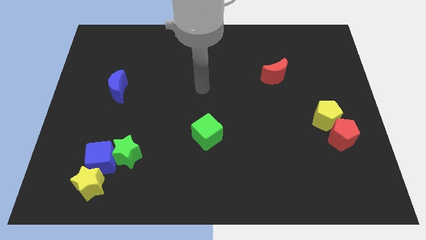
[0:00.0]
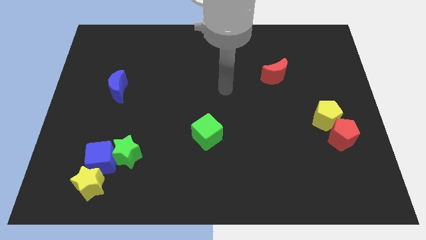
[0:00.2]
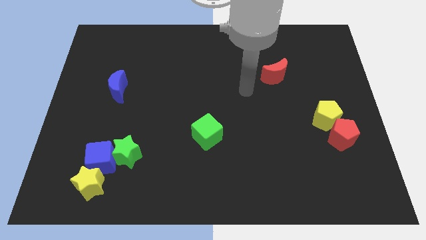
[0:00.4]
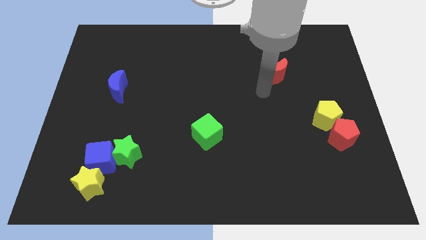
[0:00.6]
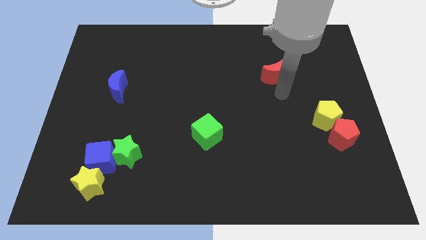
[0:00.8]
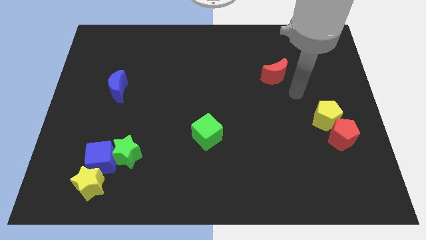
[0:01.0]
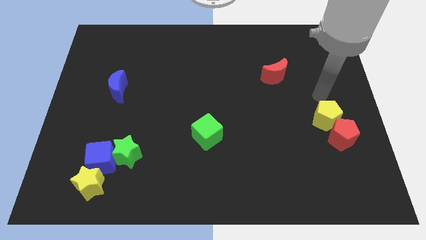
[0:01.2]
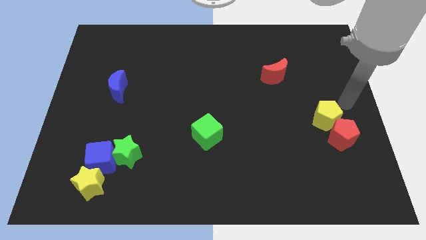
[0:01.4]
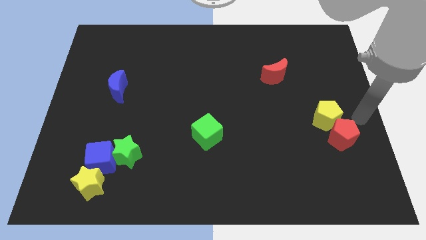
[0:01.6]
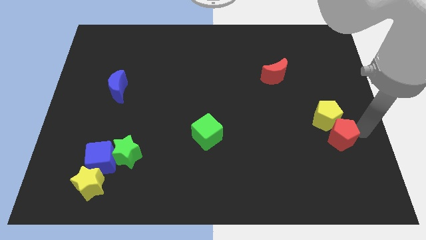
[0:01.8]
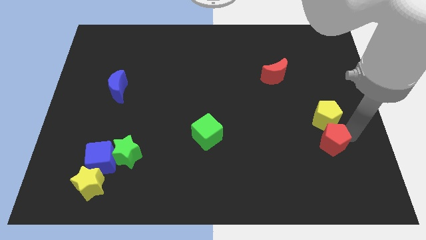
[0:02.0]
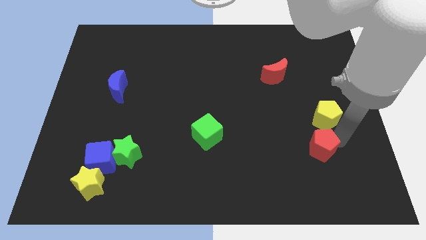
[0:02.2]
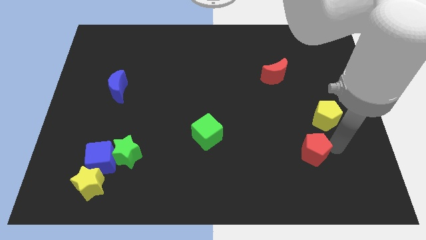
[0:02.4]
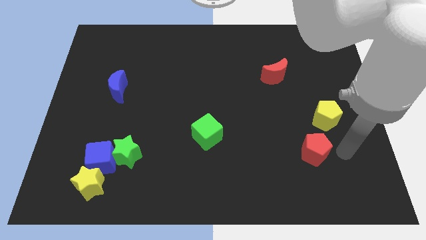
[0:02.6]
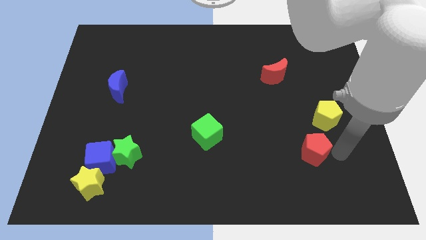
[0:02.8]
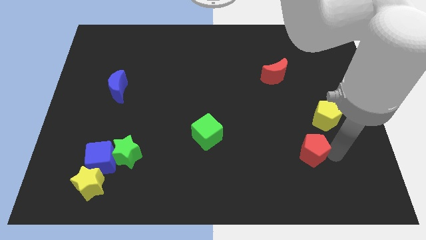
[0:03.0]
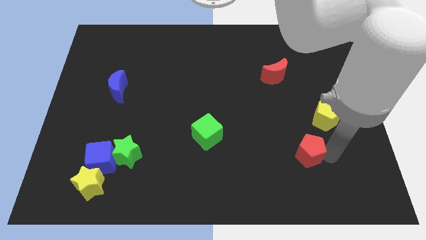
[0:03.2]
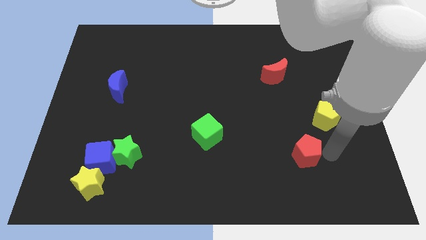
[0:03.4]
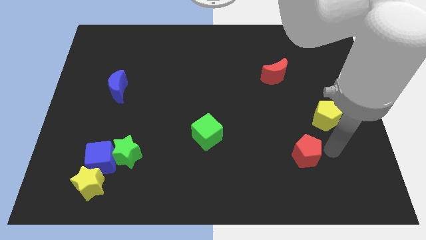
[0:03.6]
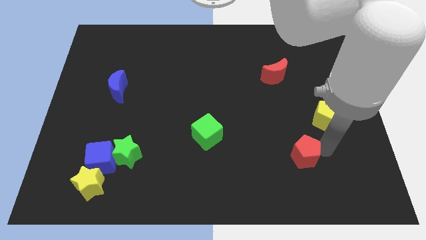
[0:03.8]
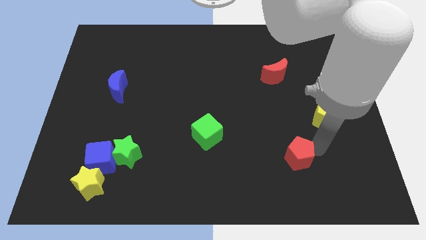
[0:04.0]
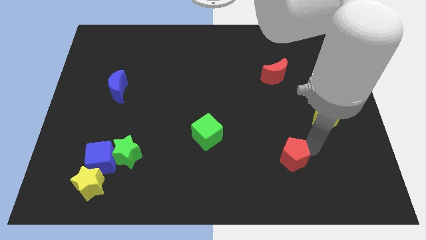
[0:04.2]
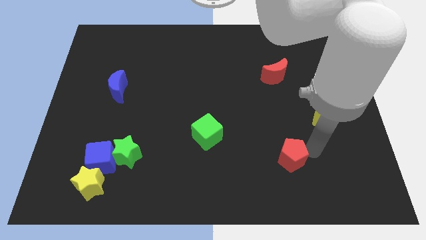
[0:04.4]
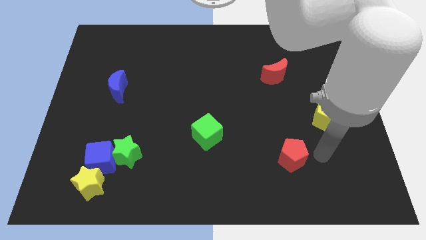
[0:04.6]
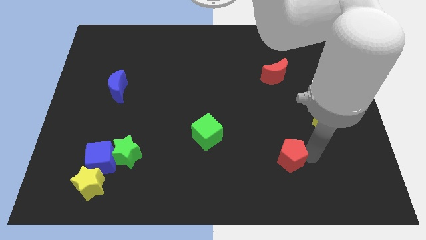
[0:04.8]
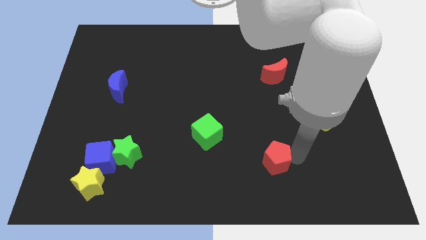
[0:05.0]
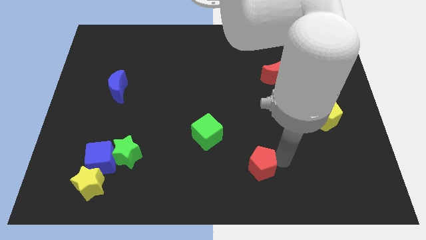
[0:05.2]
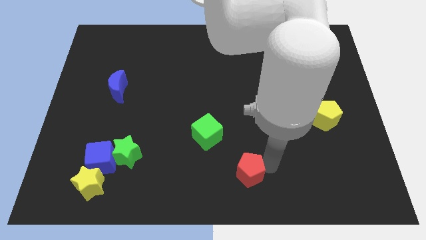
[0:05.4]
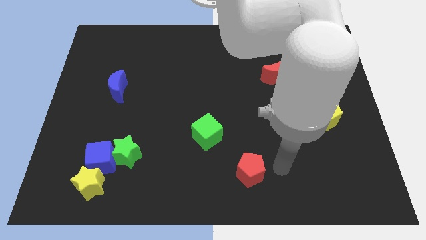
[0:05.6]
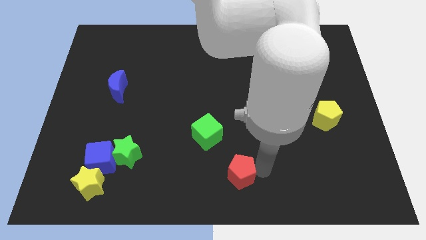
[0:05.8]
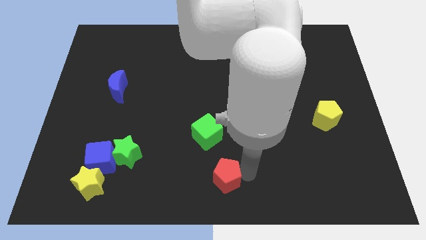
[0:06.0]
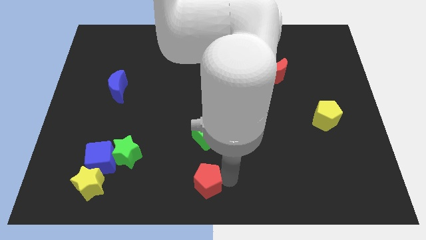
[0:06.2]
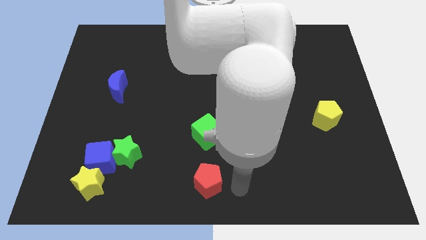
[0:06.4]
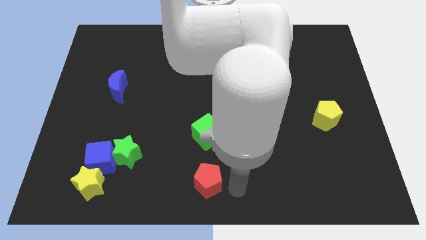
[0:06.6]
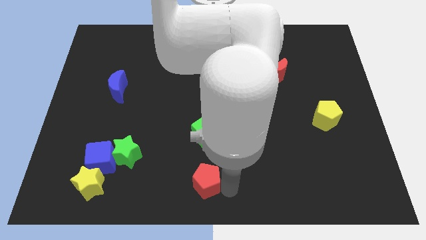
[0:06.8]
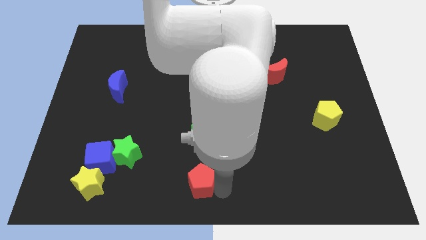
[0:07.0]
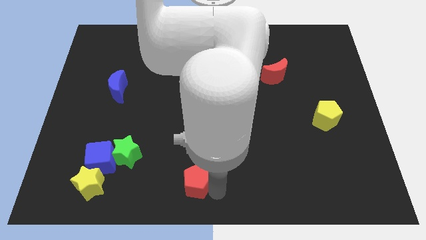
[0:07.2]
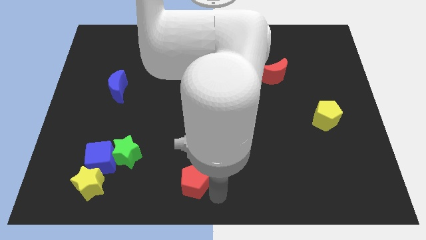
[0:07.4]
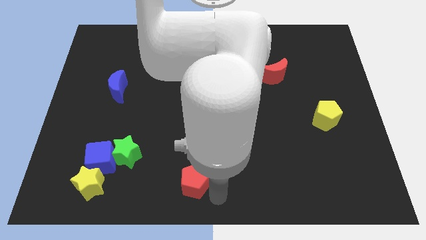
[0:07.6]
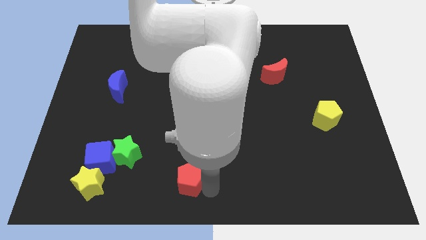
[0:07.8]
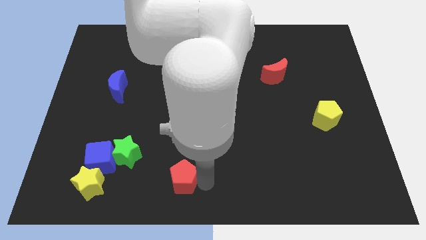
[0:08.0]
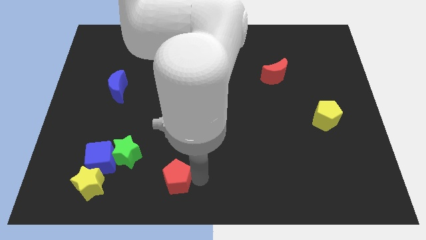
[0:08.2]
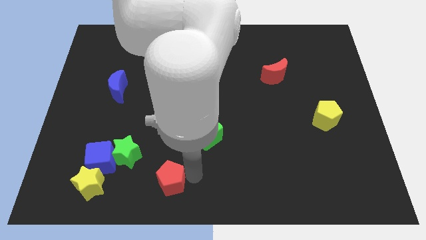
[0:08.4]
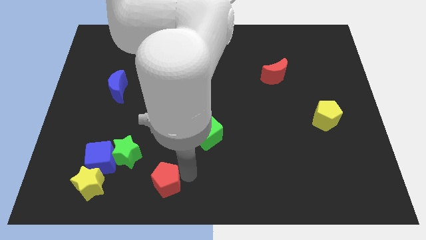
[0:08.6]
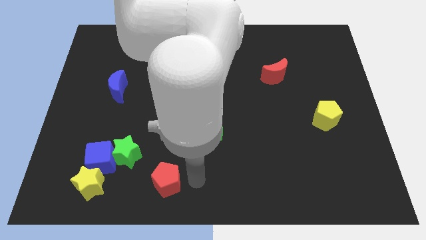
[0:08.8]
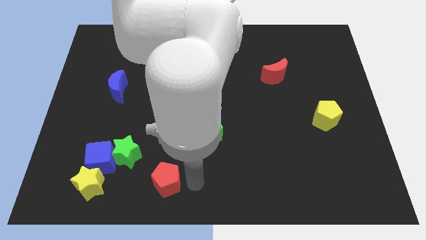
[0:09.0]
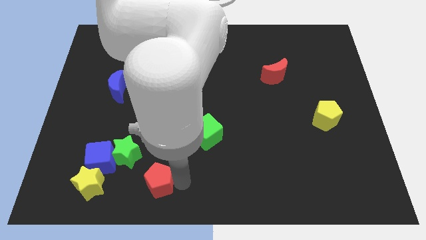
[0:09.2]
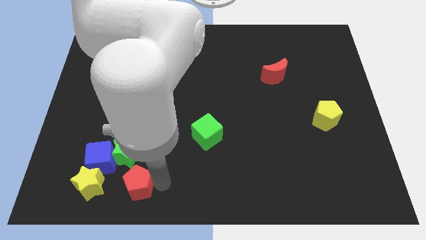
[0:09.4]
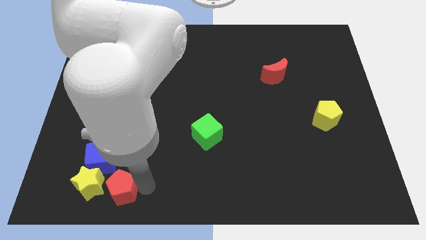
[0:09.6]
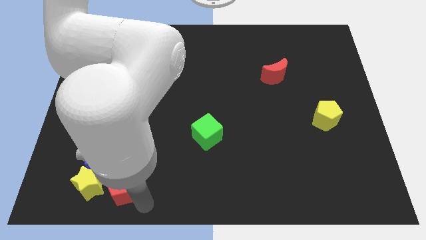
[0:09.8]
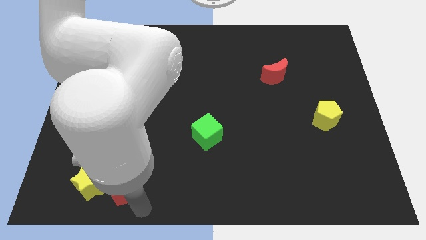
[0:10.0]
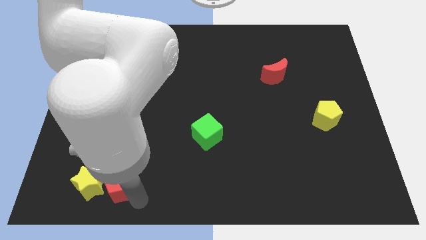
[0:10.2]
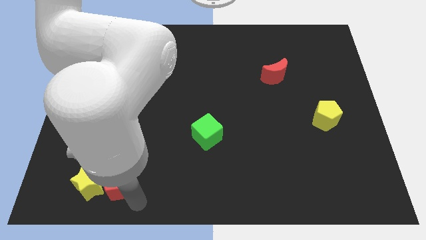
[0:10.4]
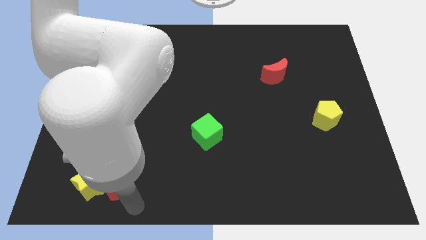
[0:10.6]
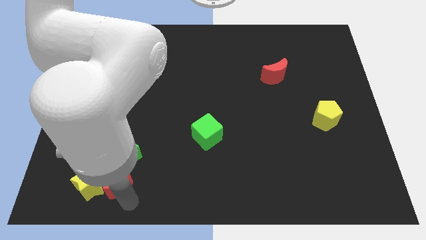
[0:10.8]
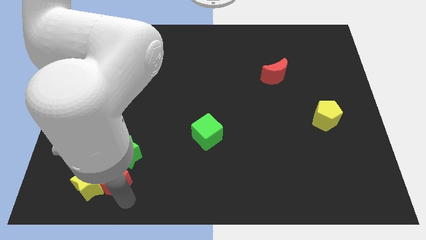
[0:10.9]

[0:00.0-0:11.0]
push the red pentagon towards the blue cube

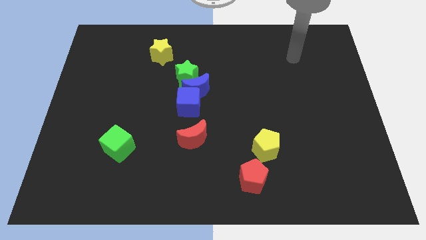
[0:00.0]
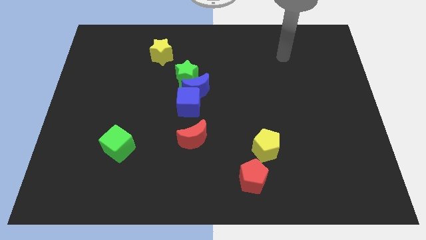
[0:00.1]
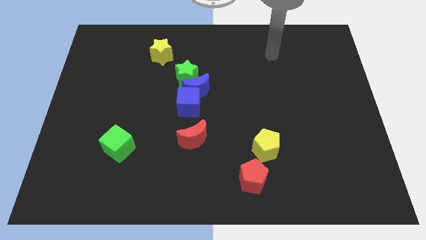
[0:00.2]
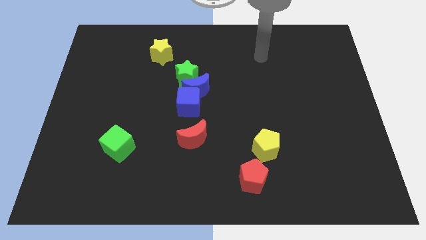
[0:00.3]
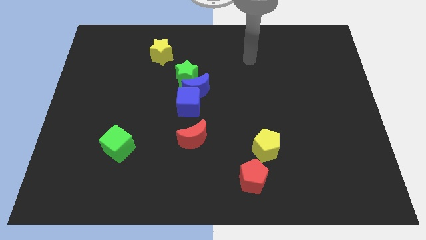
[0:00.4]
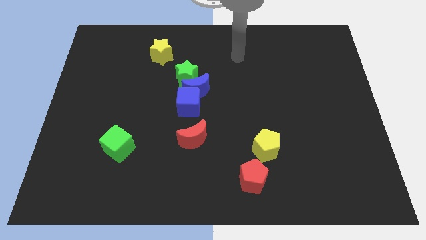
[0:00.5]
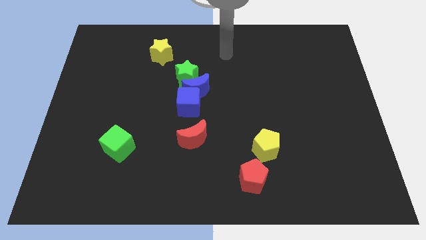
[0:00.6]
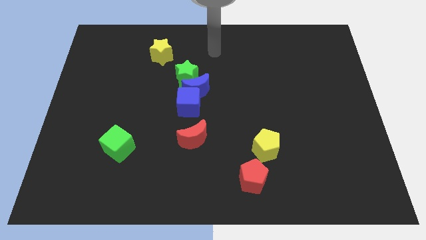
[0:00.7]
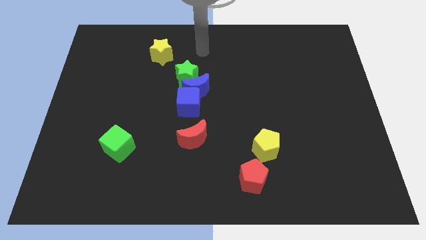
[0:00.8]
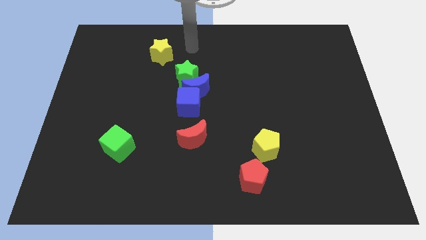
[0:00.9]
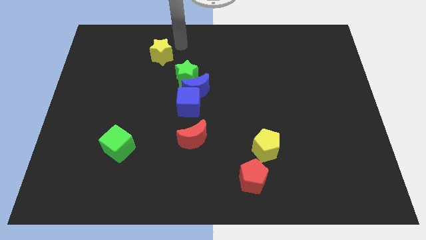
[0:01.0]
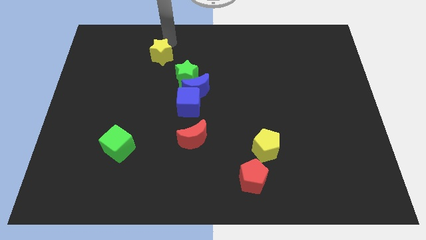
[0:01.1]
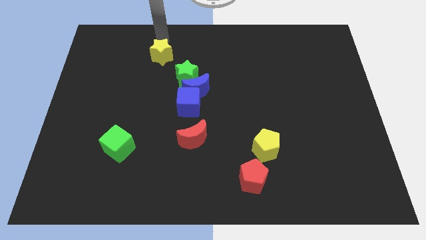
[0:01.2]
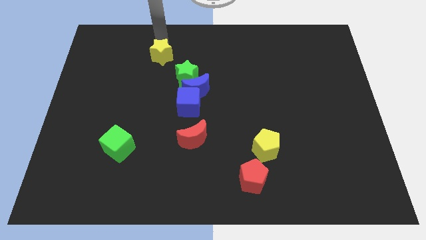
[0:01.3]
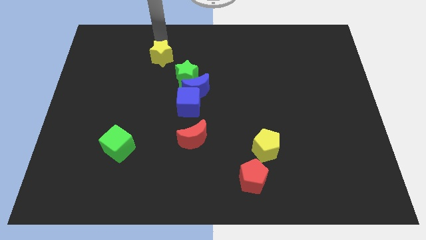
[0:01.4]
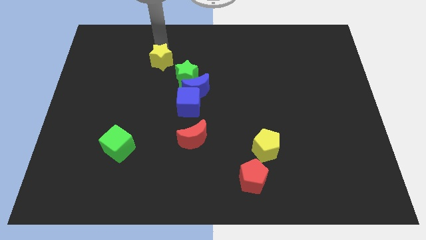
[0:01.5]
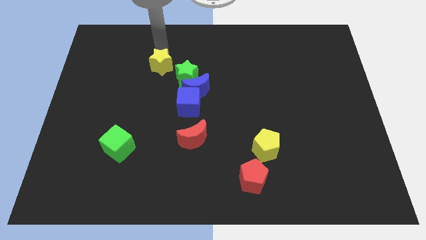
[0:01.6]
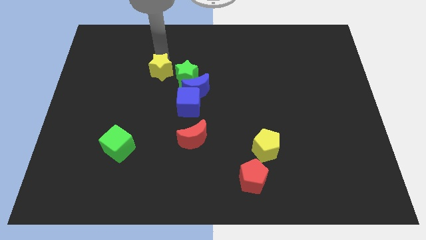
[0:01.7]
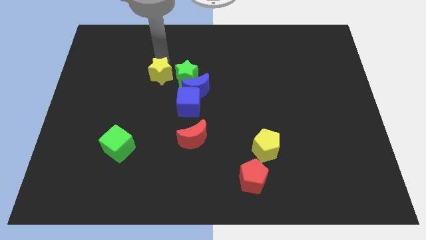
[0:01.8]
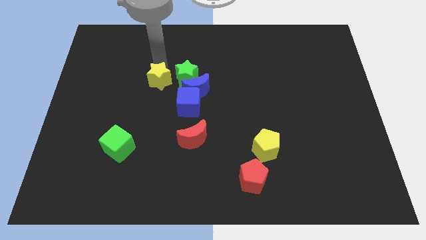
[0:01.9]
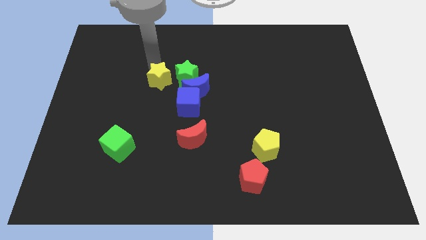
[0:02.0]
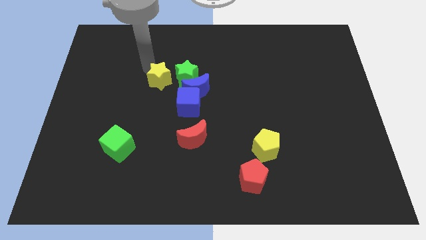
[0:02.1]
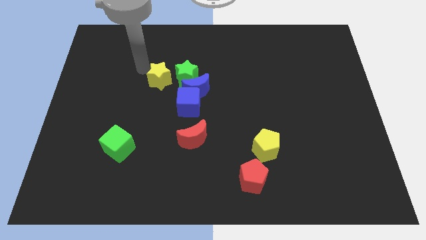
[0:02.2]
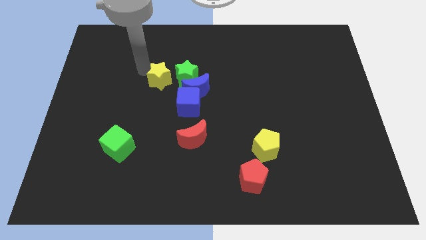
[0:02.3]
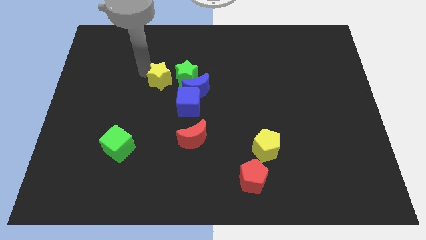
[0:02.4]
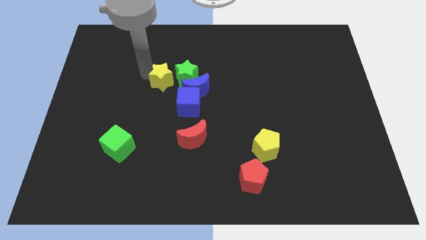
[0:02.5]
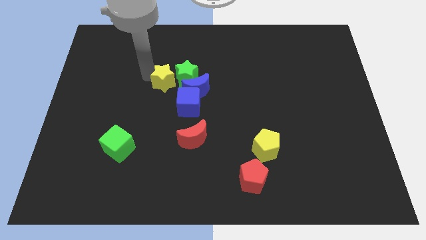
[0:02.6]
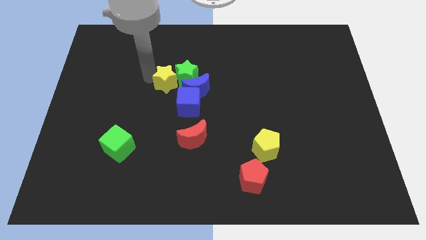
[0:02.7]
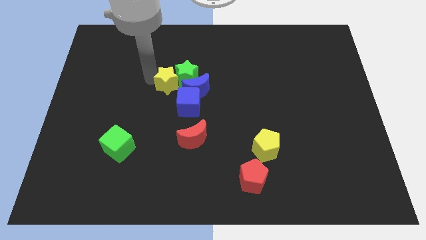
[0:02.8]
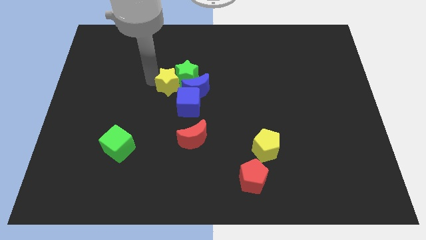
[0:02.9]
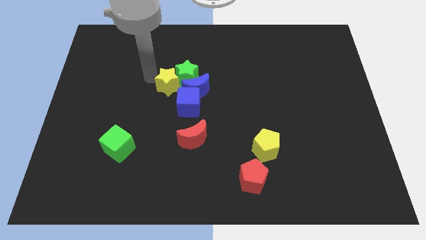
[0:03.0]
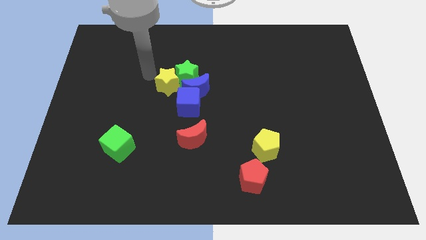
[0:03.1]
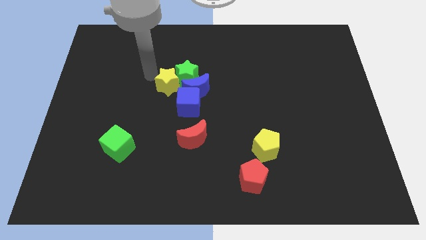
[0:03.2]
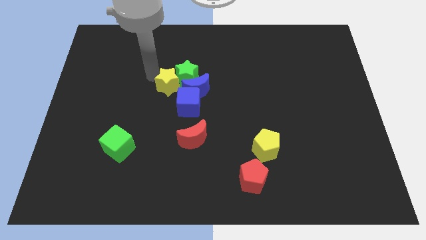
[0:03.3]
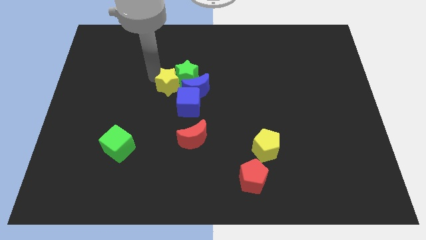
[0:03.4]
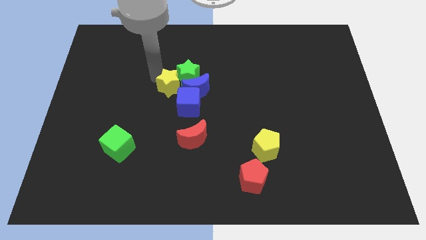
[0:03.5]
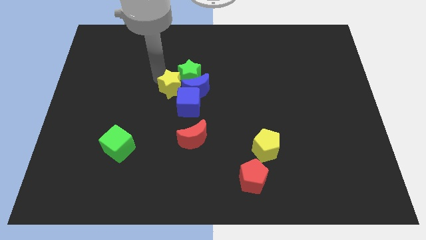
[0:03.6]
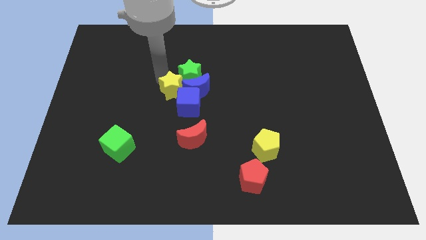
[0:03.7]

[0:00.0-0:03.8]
move the yellow star to the blue moon
